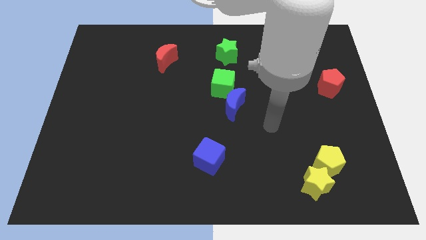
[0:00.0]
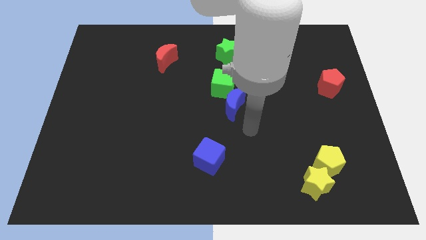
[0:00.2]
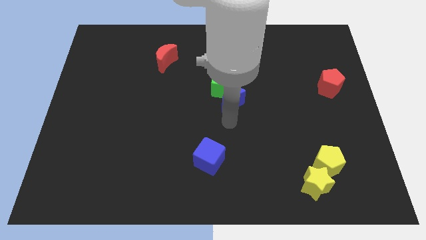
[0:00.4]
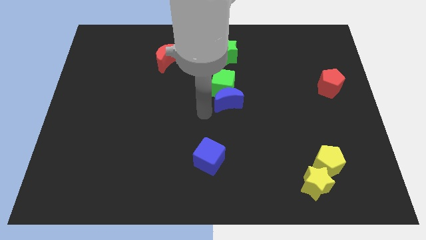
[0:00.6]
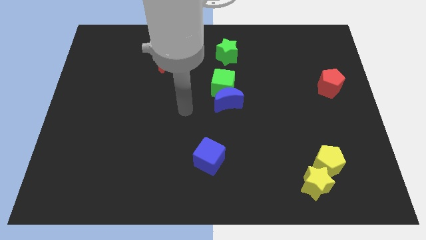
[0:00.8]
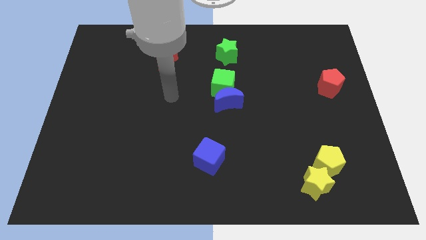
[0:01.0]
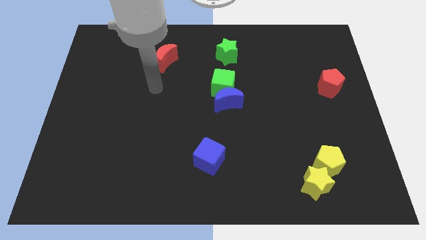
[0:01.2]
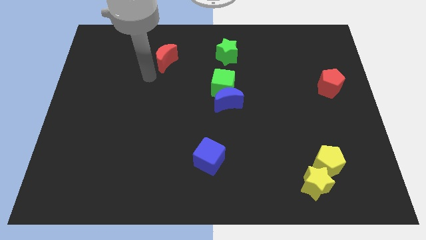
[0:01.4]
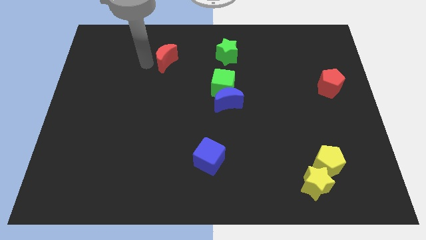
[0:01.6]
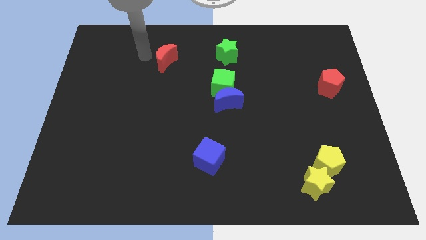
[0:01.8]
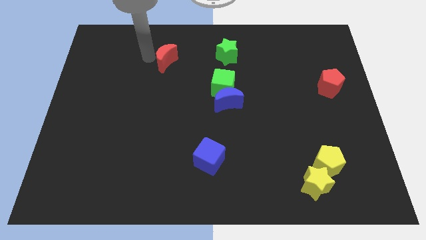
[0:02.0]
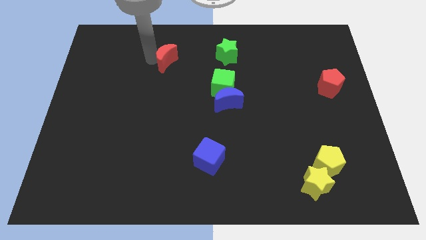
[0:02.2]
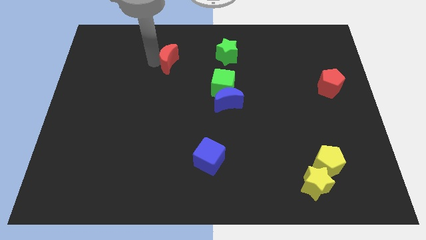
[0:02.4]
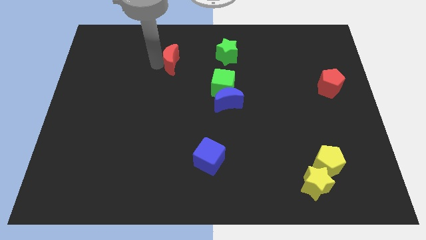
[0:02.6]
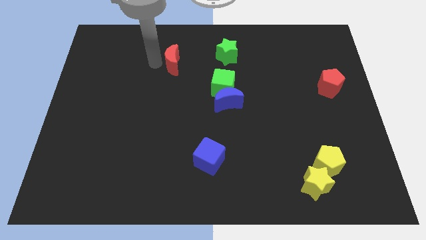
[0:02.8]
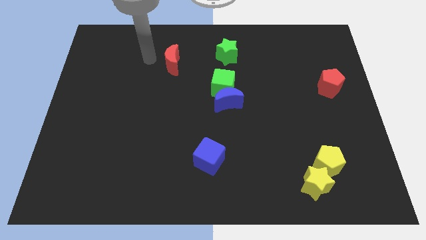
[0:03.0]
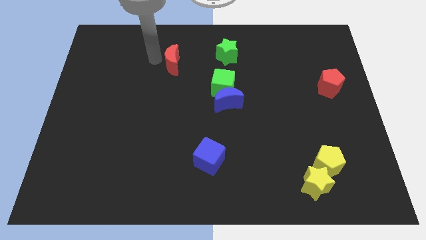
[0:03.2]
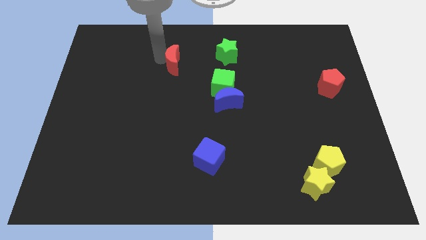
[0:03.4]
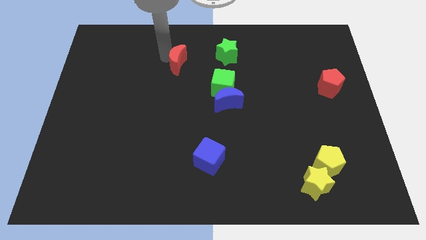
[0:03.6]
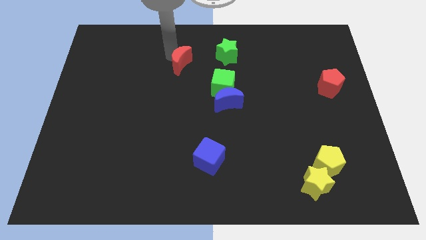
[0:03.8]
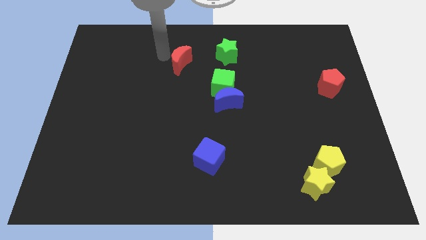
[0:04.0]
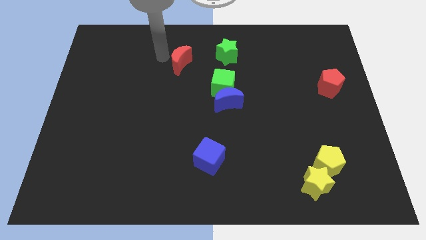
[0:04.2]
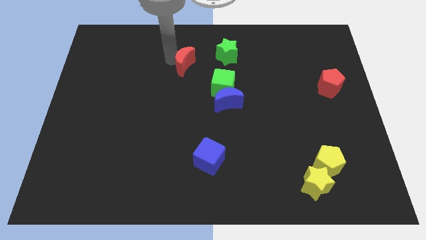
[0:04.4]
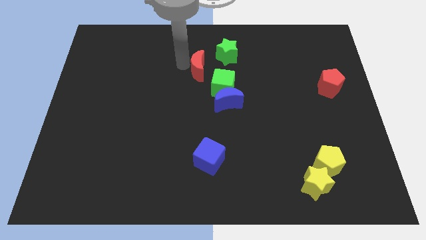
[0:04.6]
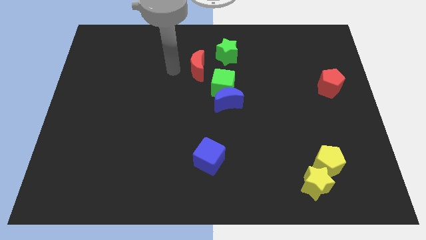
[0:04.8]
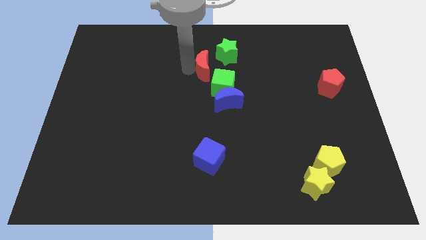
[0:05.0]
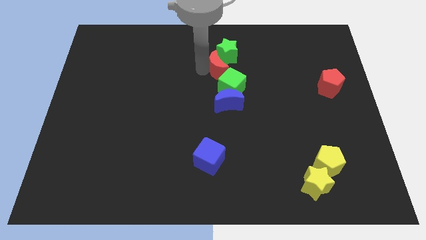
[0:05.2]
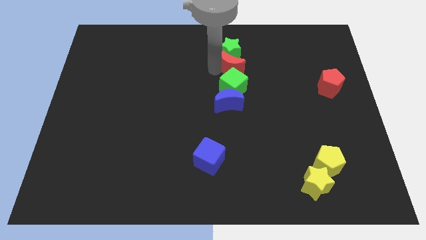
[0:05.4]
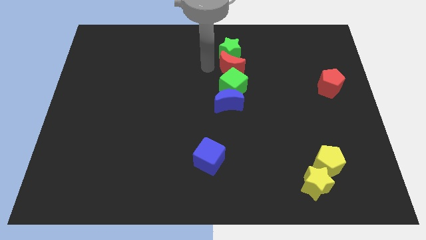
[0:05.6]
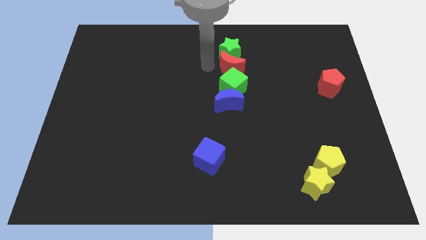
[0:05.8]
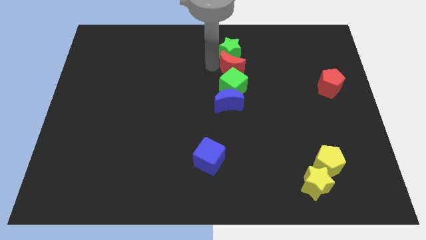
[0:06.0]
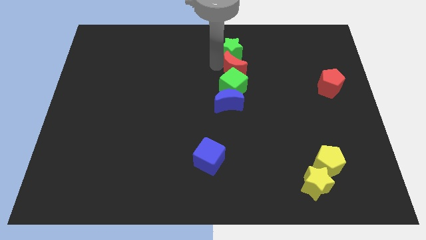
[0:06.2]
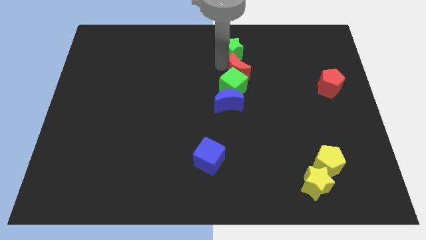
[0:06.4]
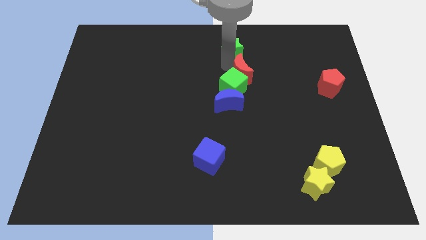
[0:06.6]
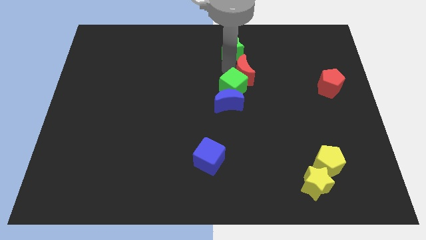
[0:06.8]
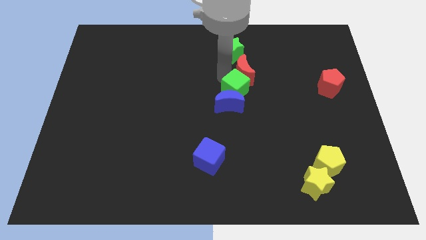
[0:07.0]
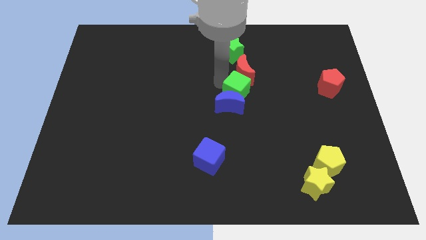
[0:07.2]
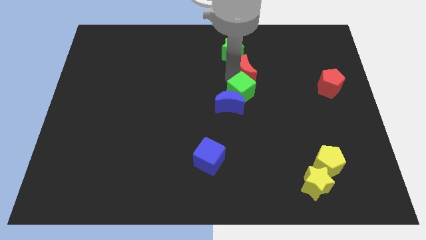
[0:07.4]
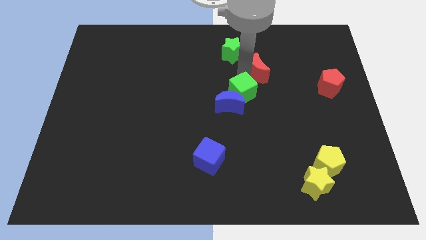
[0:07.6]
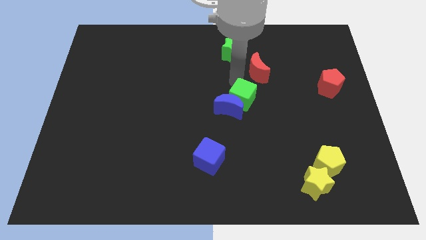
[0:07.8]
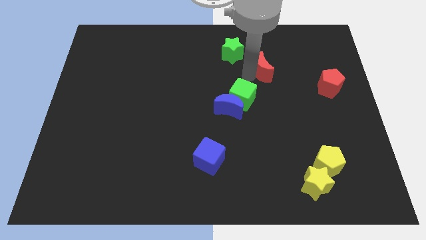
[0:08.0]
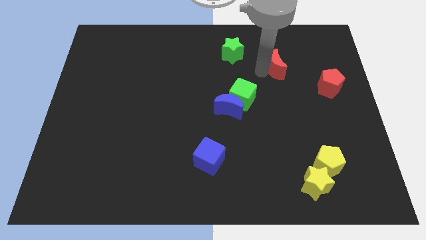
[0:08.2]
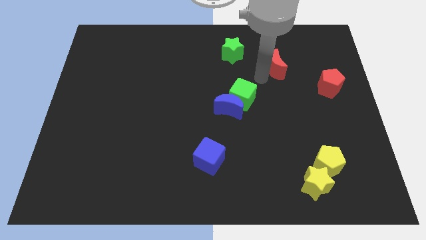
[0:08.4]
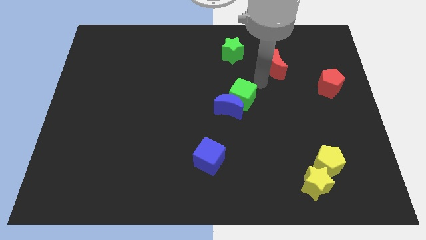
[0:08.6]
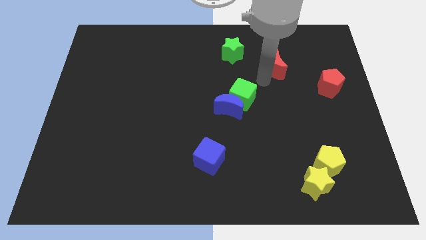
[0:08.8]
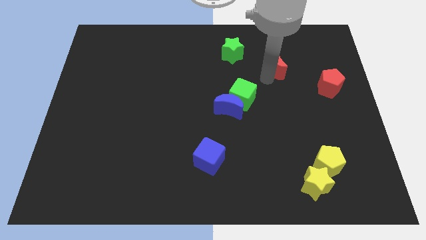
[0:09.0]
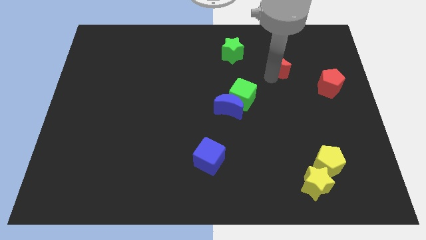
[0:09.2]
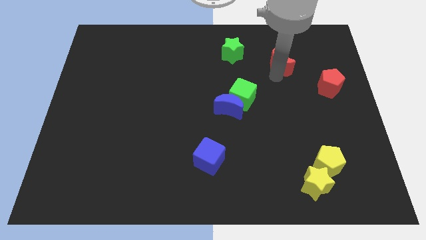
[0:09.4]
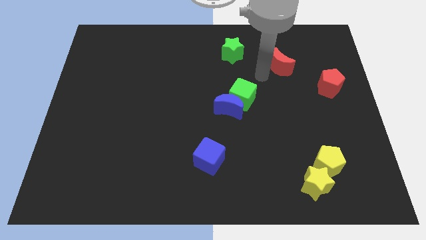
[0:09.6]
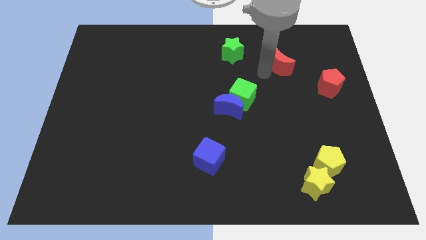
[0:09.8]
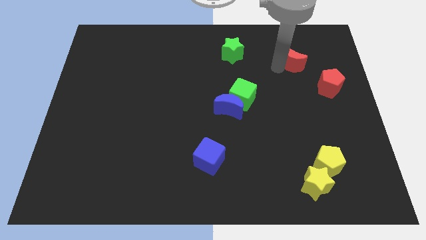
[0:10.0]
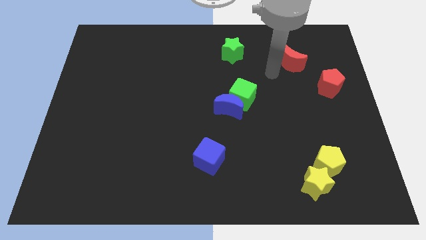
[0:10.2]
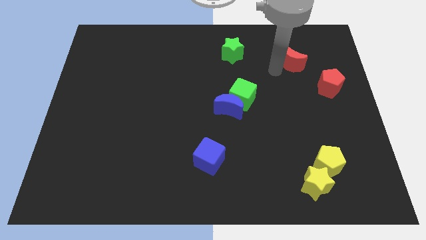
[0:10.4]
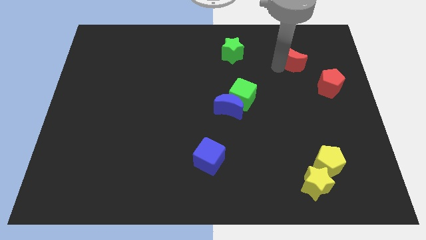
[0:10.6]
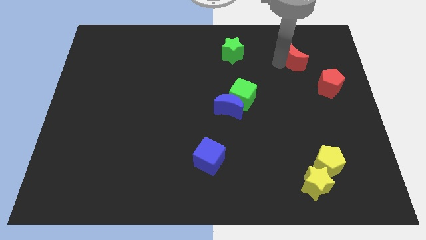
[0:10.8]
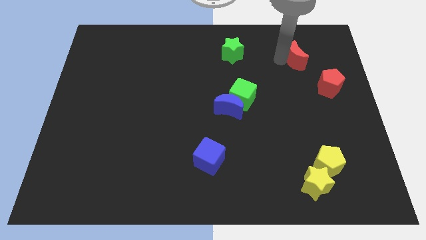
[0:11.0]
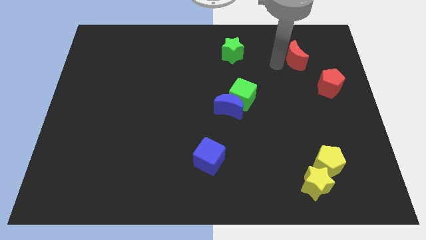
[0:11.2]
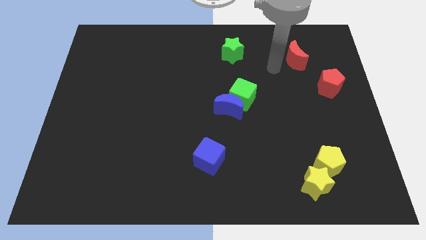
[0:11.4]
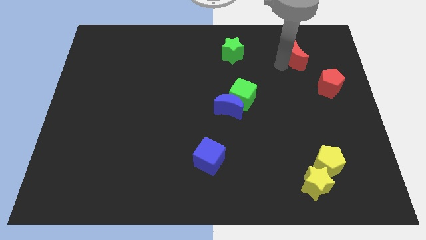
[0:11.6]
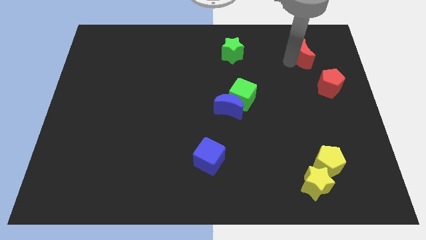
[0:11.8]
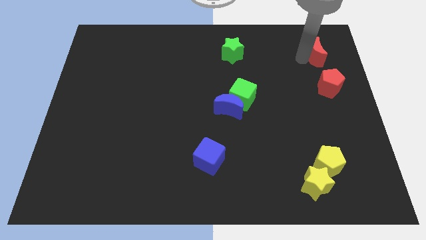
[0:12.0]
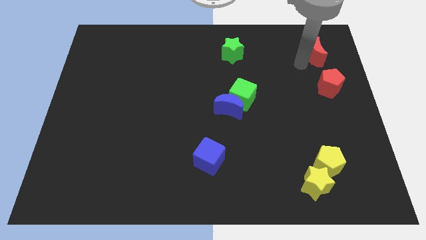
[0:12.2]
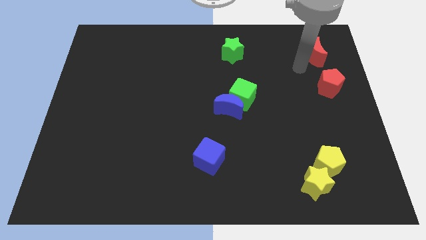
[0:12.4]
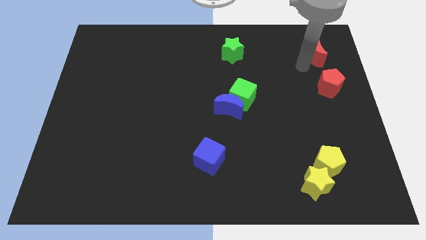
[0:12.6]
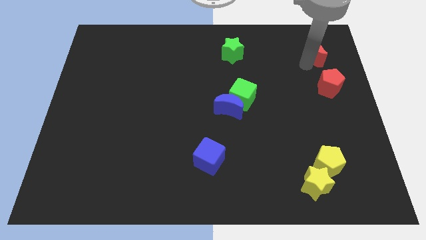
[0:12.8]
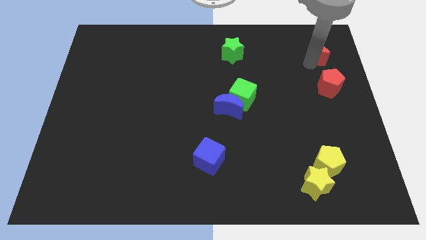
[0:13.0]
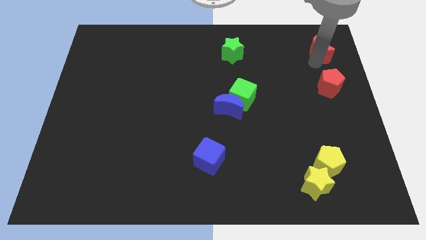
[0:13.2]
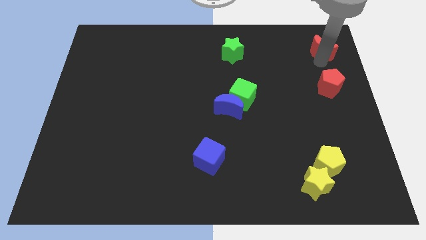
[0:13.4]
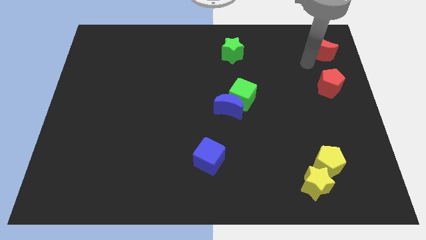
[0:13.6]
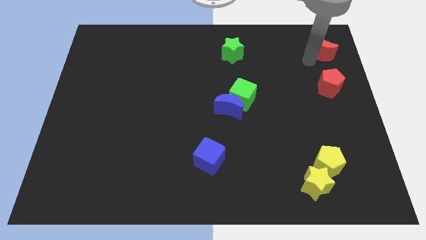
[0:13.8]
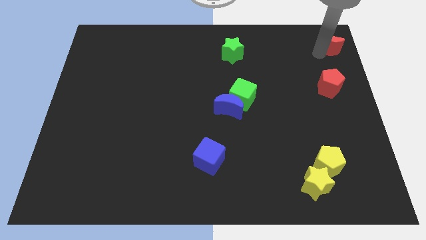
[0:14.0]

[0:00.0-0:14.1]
slide the red moon to the top right of the board
